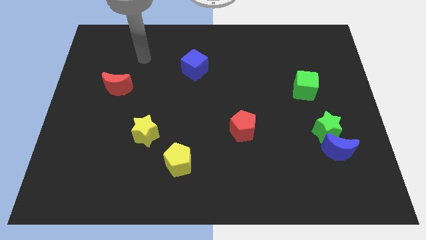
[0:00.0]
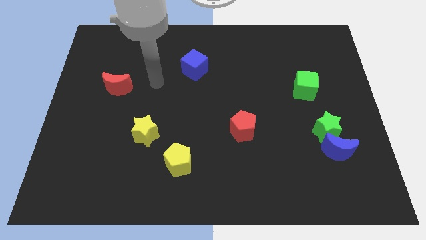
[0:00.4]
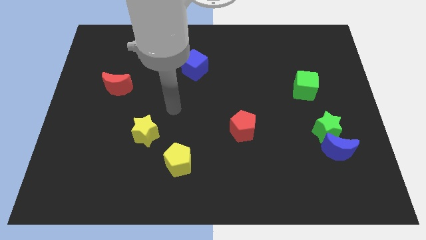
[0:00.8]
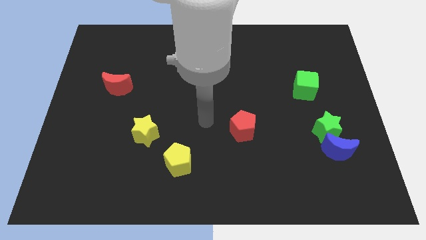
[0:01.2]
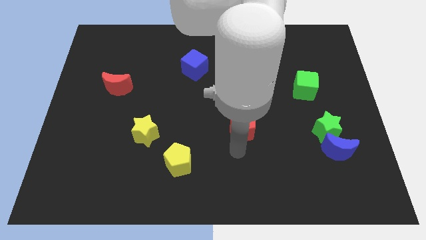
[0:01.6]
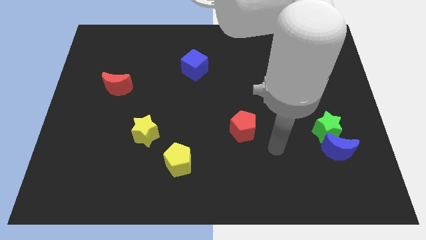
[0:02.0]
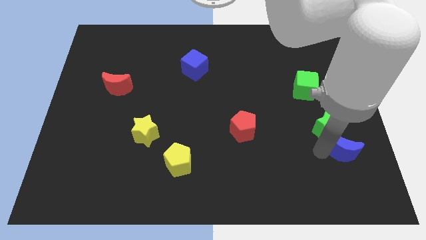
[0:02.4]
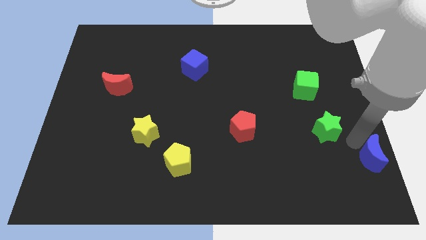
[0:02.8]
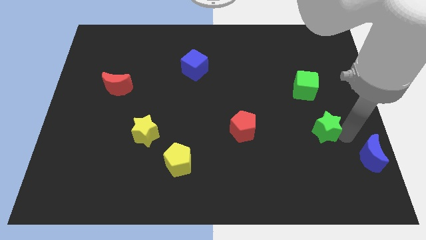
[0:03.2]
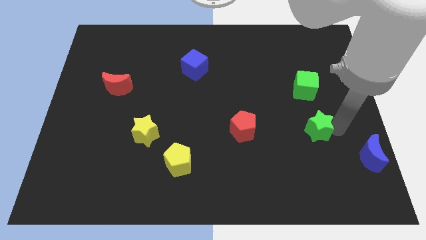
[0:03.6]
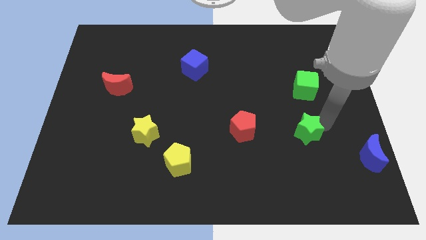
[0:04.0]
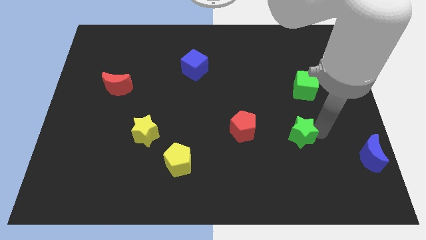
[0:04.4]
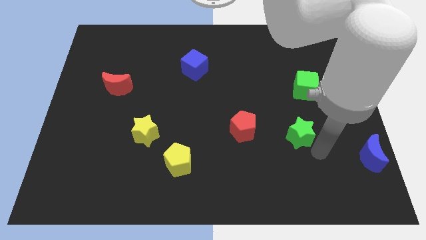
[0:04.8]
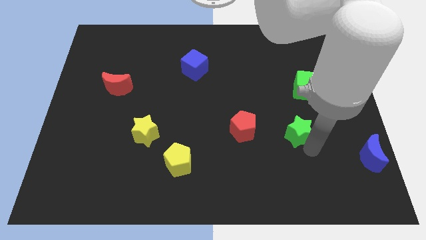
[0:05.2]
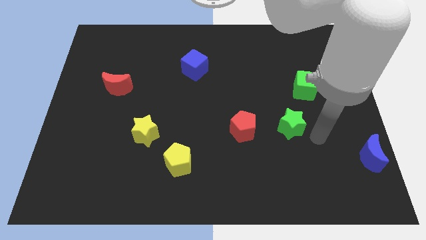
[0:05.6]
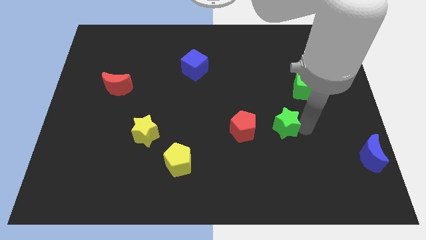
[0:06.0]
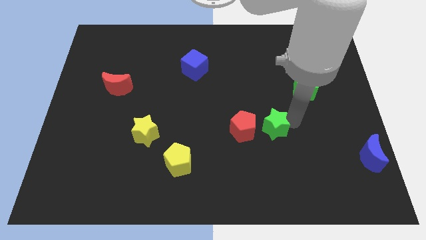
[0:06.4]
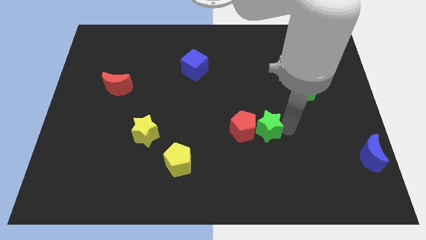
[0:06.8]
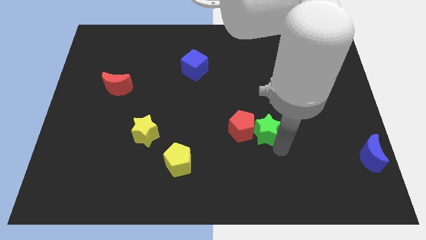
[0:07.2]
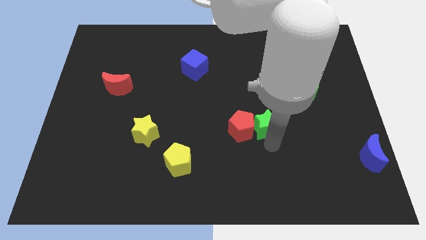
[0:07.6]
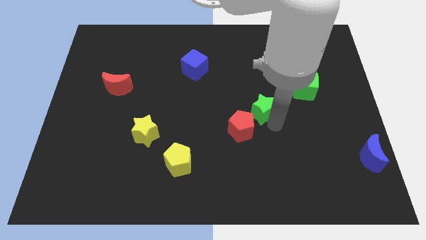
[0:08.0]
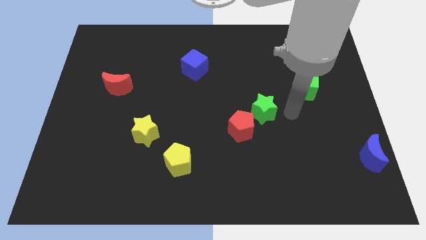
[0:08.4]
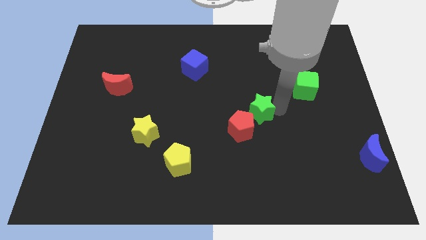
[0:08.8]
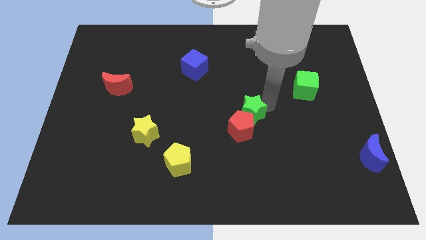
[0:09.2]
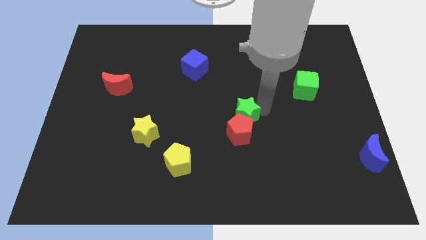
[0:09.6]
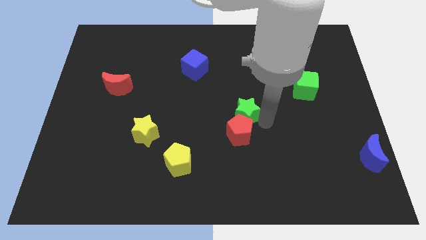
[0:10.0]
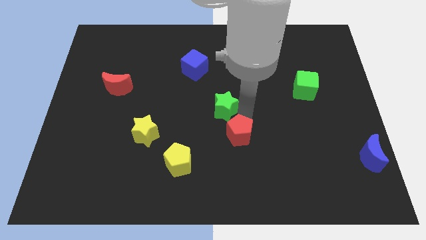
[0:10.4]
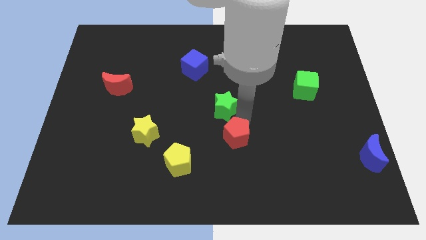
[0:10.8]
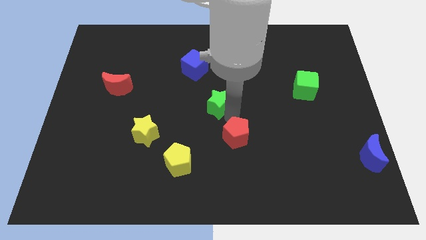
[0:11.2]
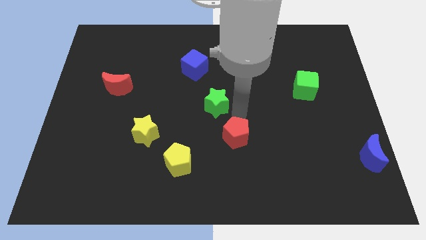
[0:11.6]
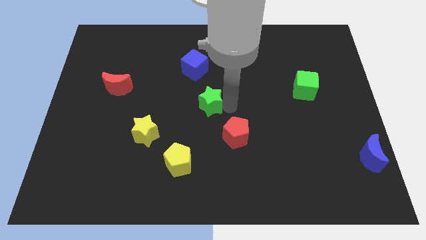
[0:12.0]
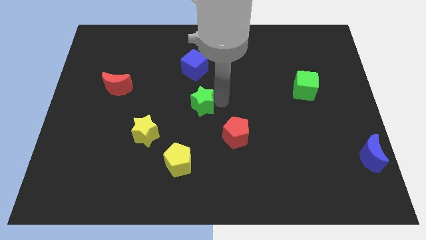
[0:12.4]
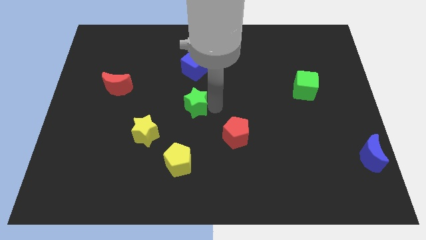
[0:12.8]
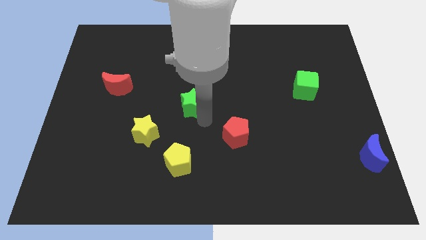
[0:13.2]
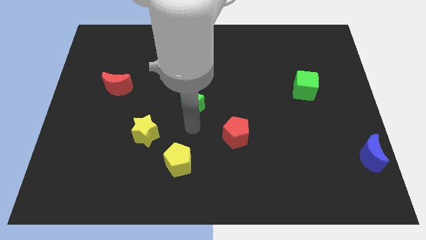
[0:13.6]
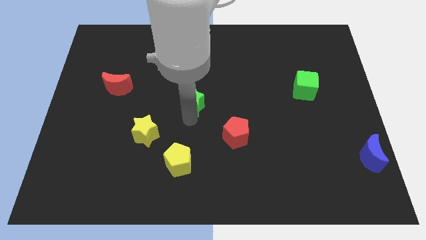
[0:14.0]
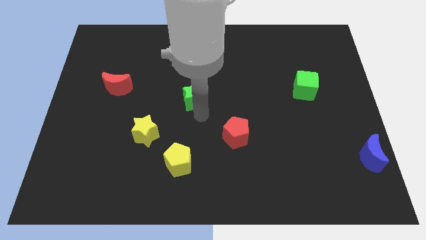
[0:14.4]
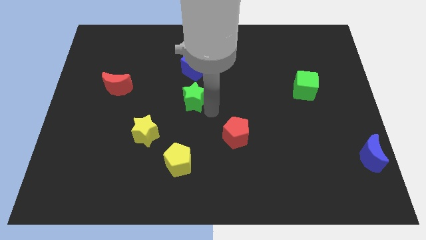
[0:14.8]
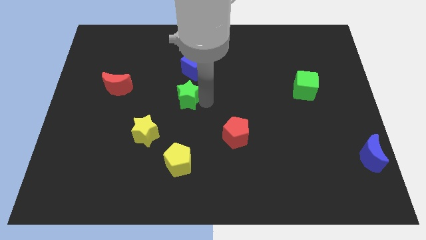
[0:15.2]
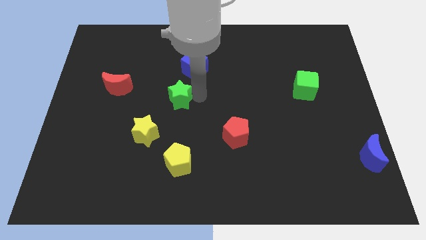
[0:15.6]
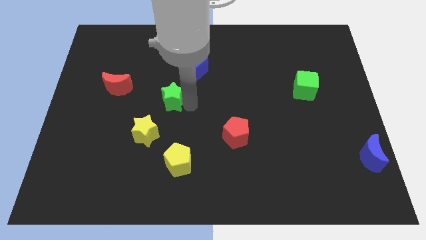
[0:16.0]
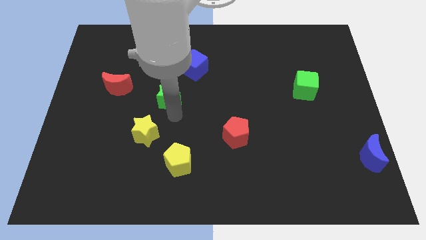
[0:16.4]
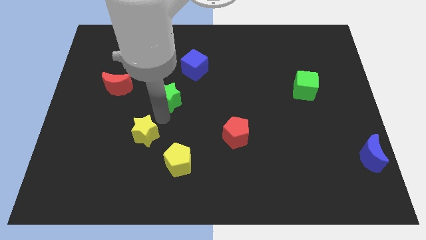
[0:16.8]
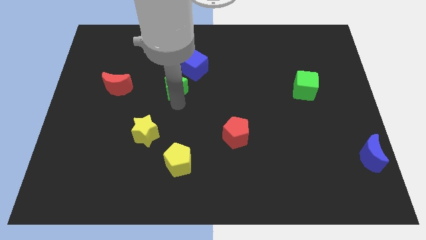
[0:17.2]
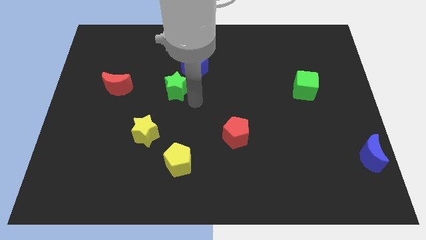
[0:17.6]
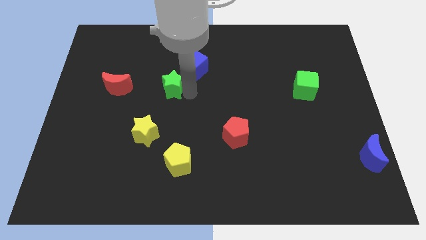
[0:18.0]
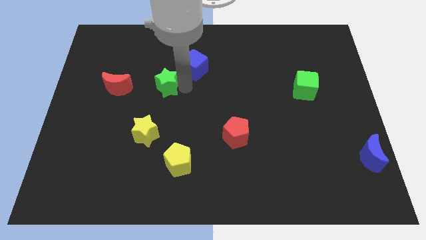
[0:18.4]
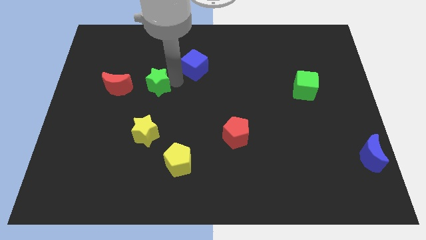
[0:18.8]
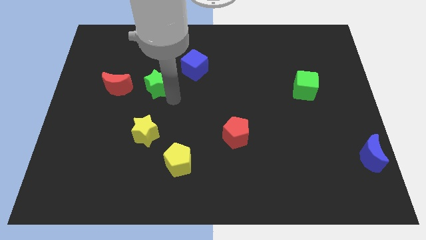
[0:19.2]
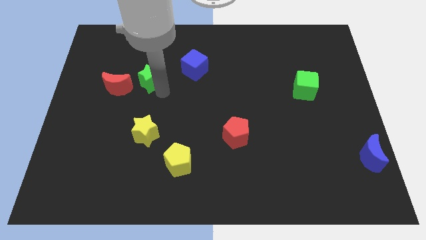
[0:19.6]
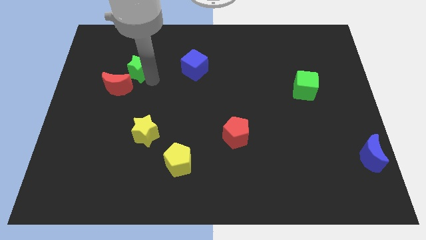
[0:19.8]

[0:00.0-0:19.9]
slide the green star to the top of the red moon

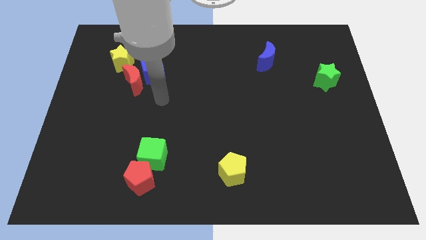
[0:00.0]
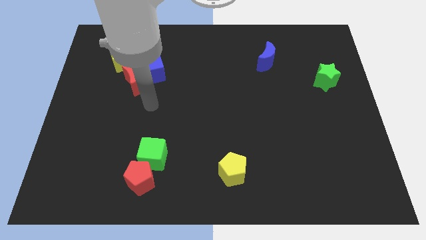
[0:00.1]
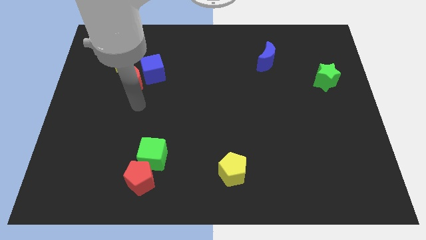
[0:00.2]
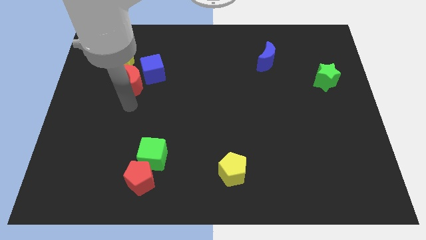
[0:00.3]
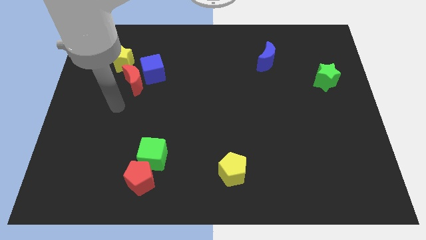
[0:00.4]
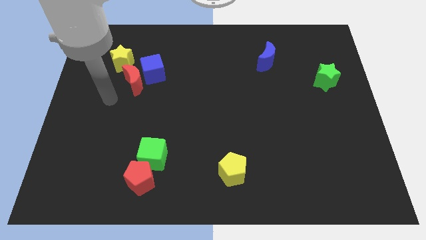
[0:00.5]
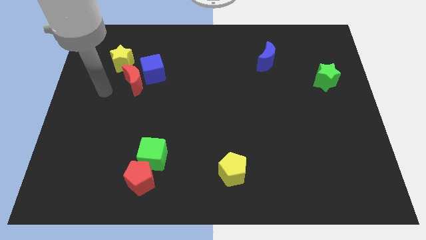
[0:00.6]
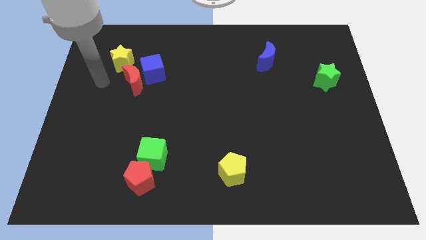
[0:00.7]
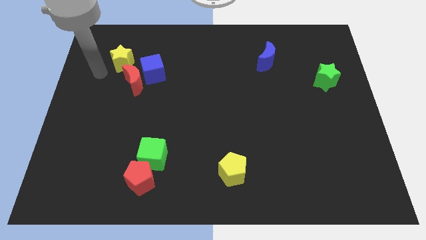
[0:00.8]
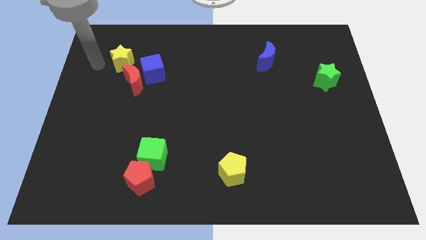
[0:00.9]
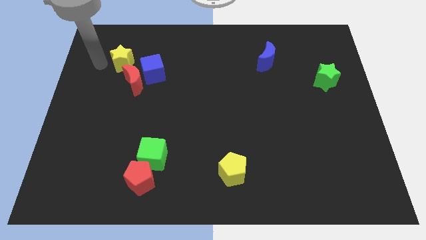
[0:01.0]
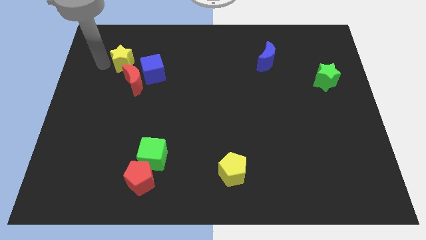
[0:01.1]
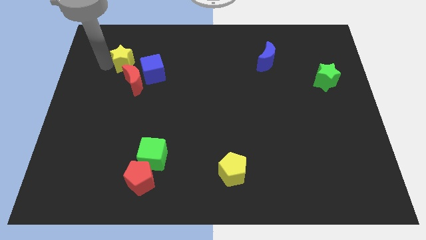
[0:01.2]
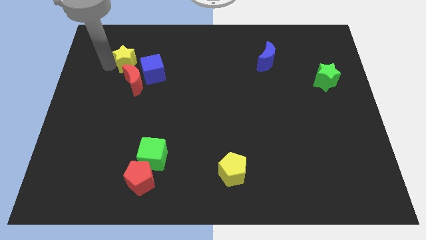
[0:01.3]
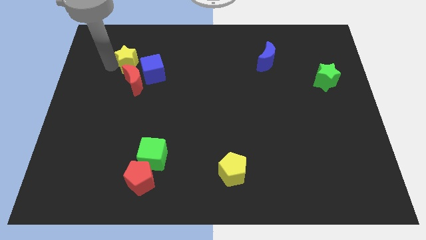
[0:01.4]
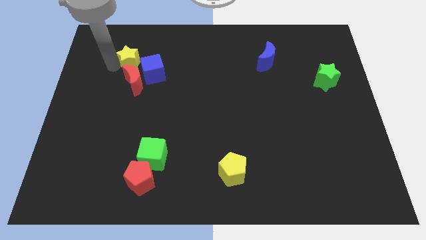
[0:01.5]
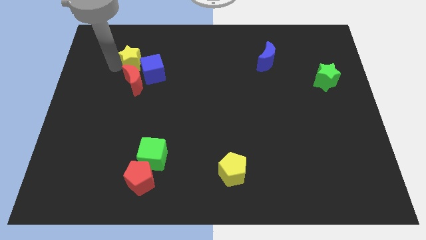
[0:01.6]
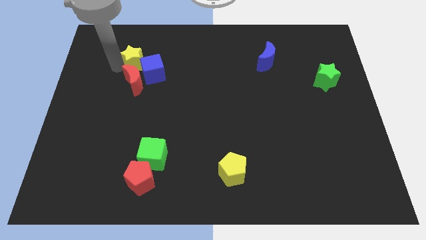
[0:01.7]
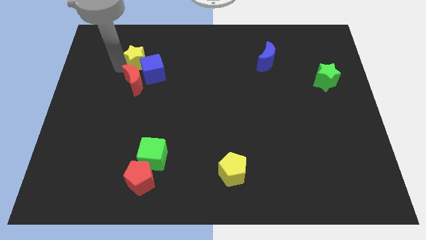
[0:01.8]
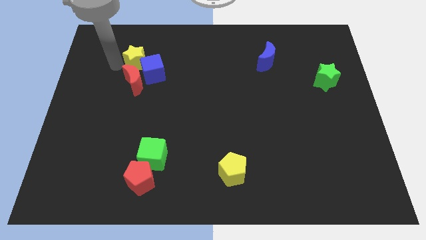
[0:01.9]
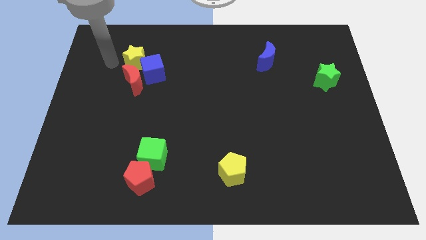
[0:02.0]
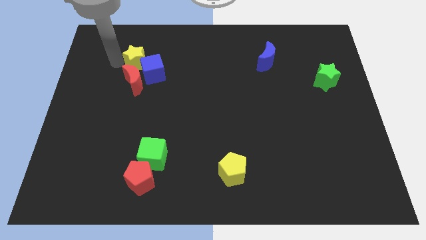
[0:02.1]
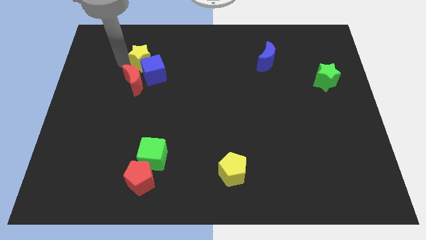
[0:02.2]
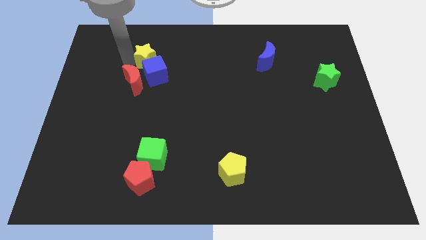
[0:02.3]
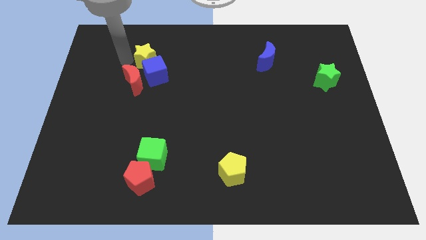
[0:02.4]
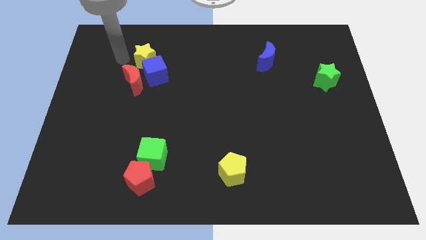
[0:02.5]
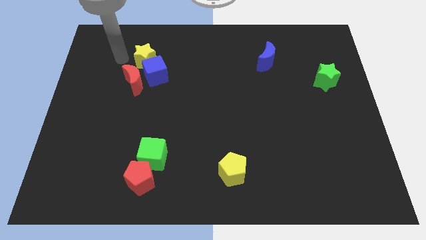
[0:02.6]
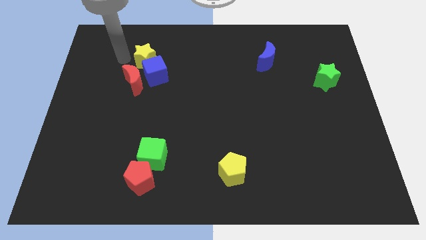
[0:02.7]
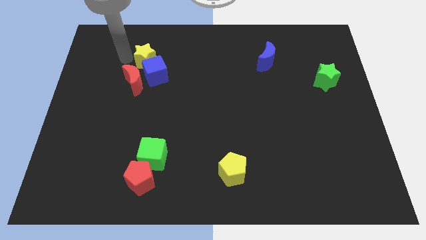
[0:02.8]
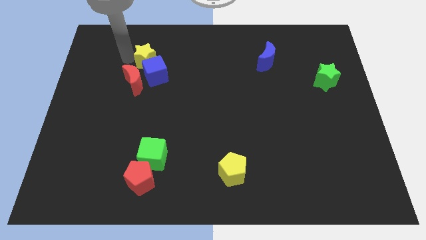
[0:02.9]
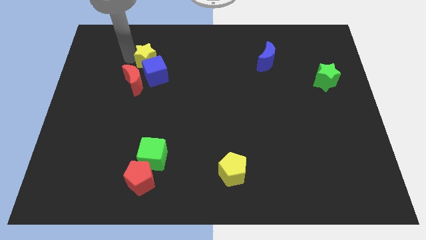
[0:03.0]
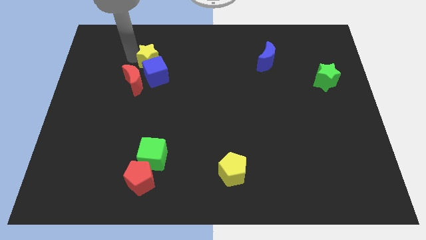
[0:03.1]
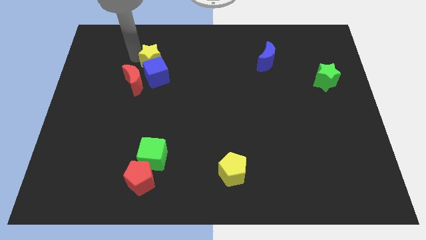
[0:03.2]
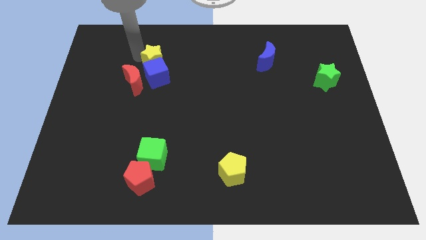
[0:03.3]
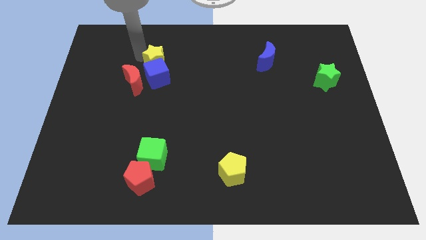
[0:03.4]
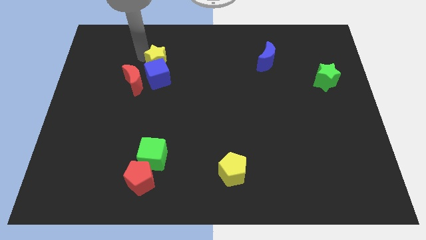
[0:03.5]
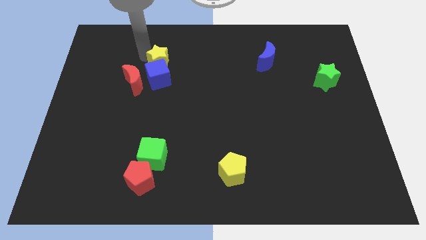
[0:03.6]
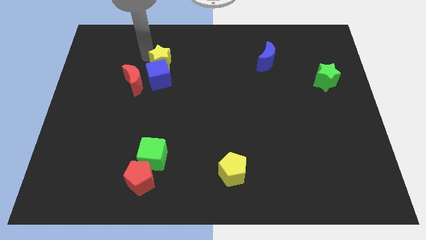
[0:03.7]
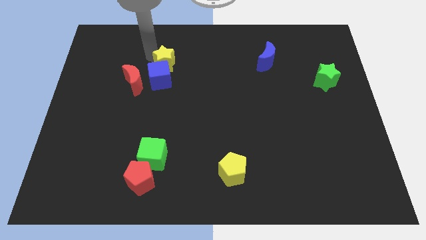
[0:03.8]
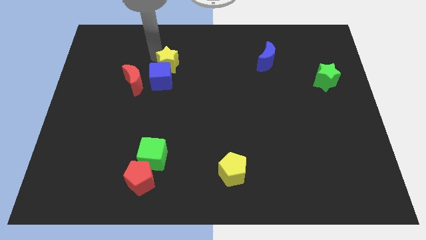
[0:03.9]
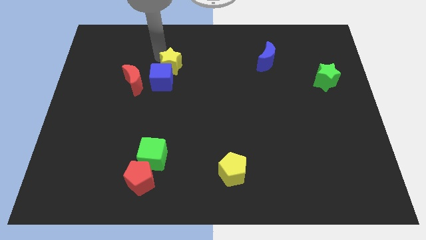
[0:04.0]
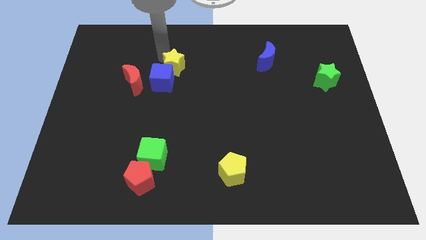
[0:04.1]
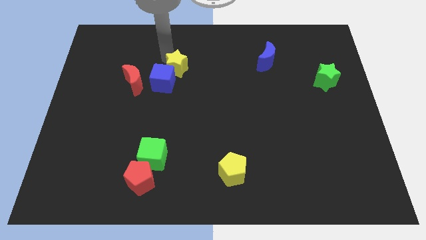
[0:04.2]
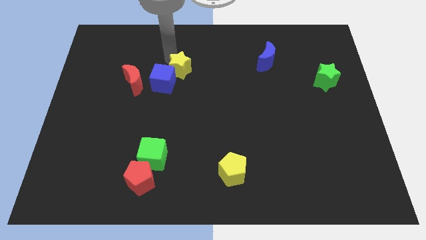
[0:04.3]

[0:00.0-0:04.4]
put the yellow star right of the blue cube
